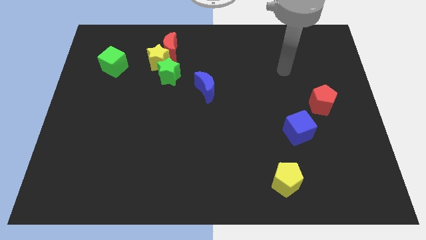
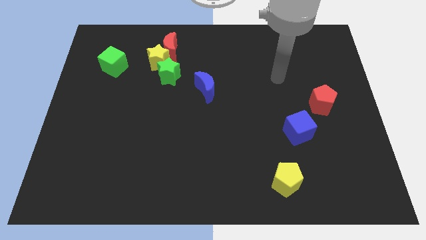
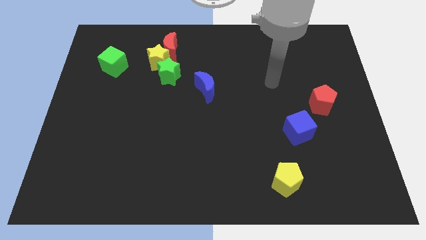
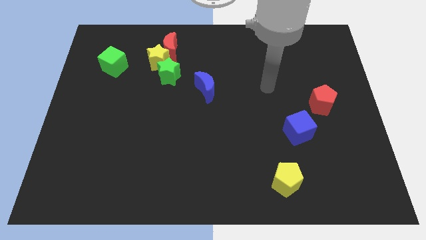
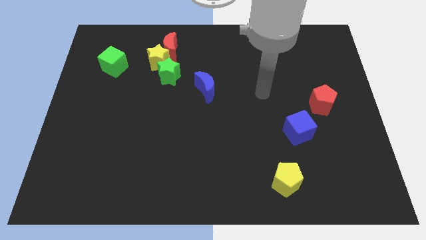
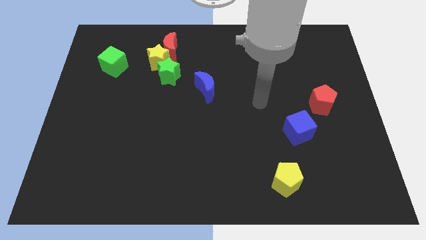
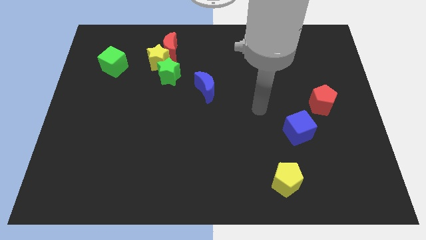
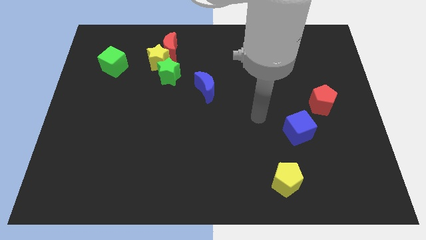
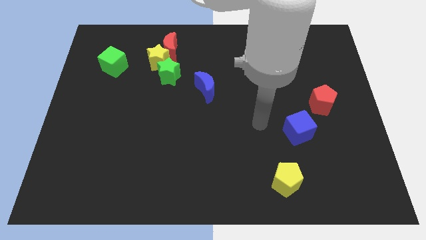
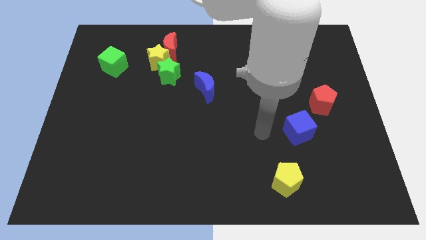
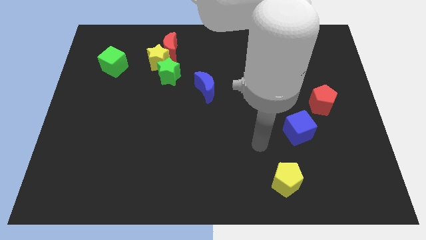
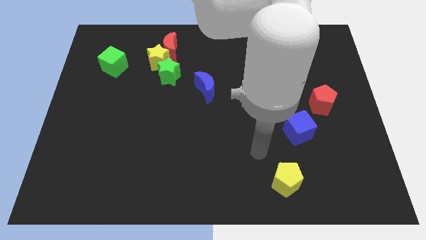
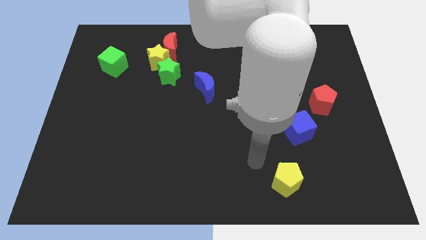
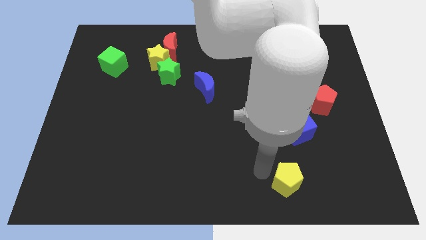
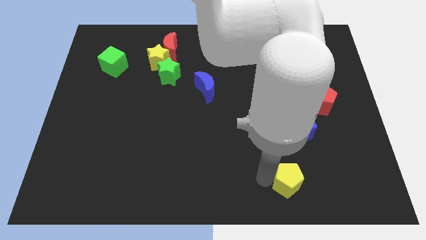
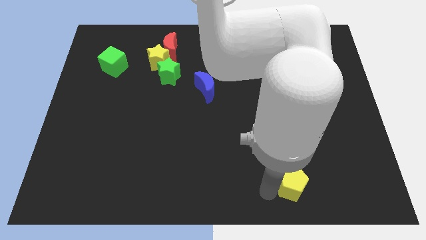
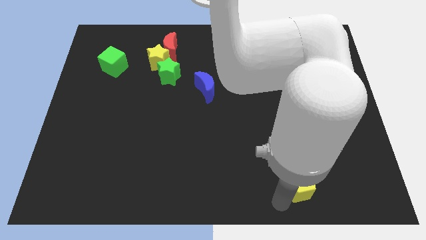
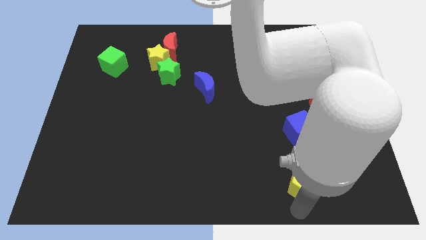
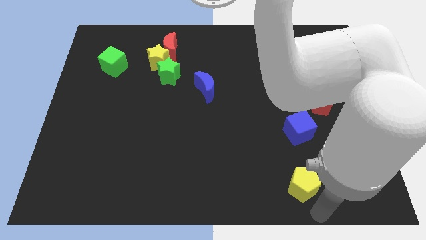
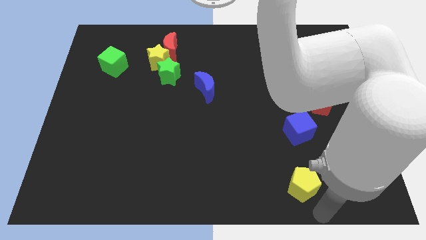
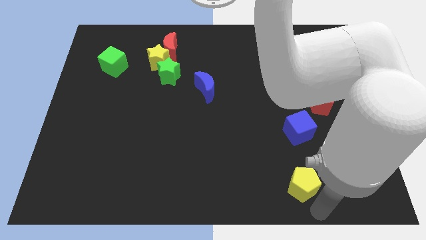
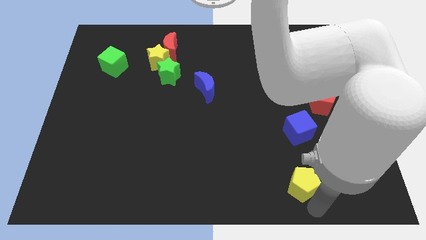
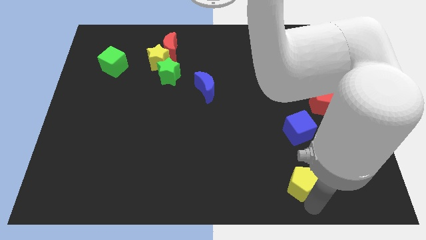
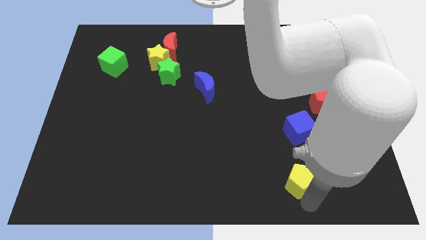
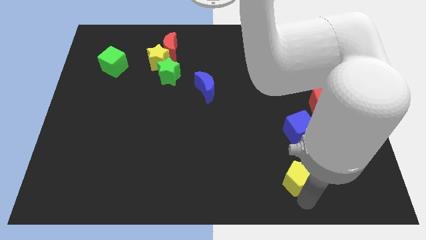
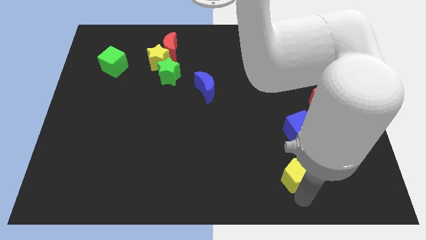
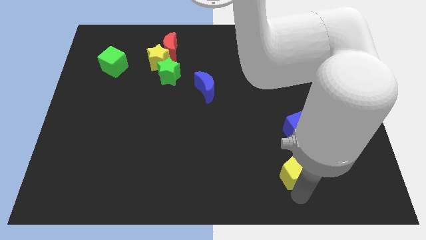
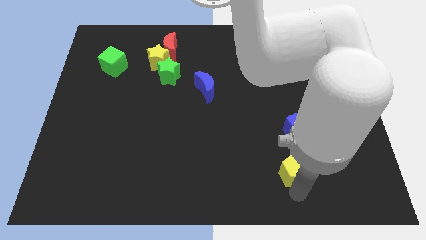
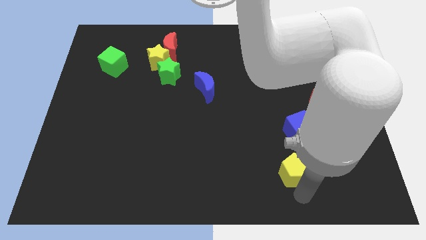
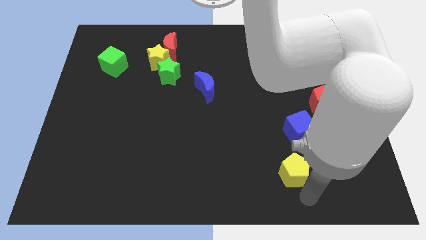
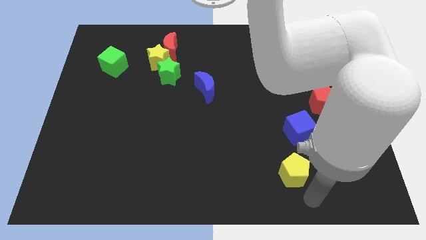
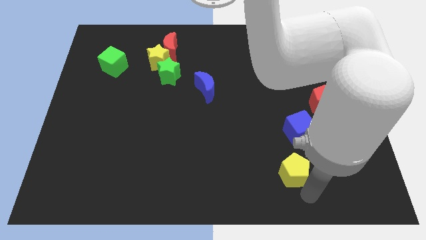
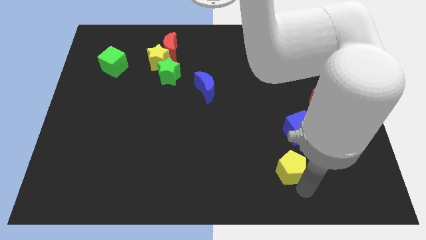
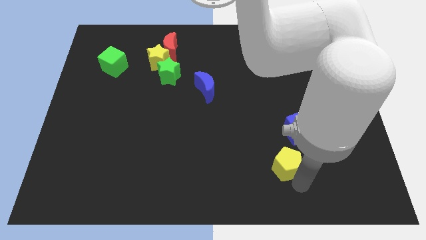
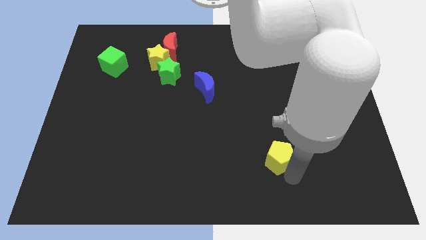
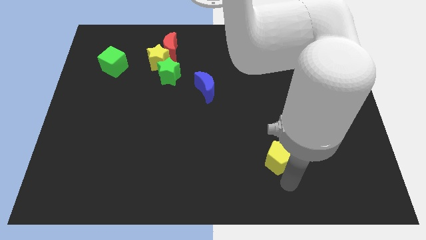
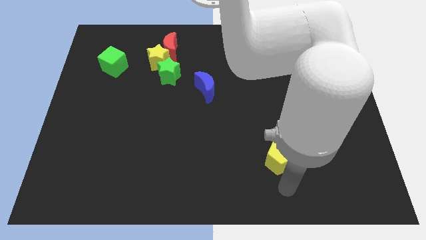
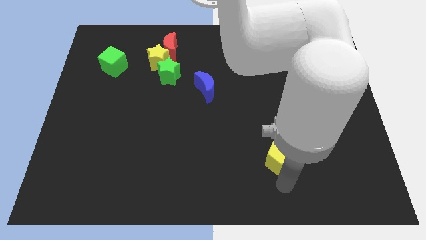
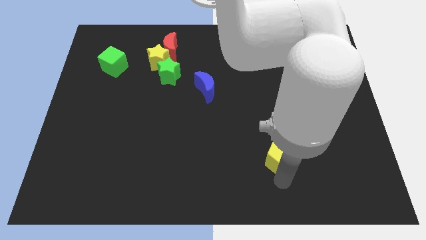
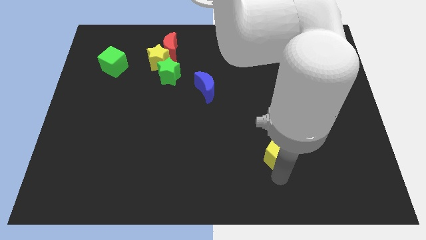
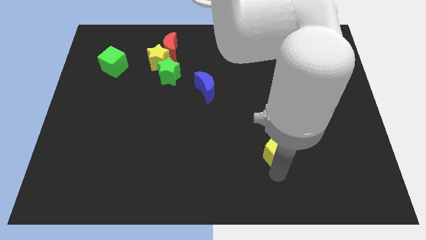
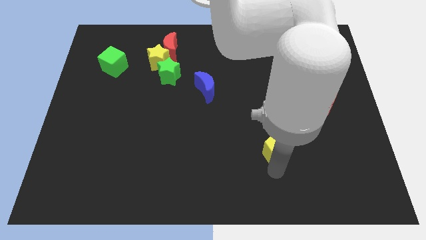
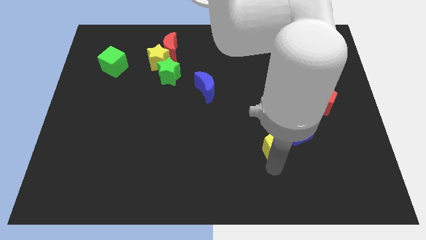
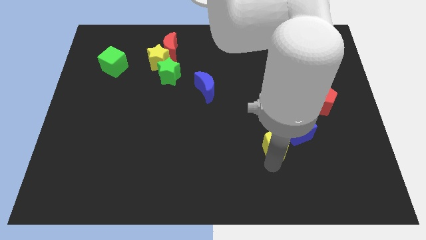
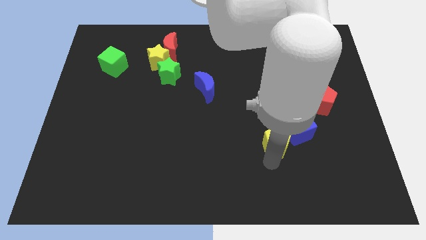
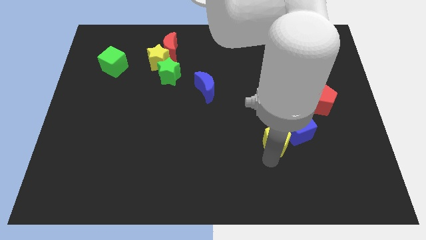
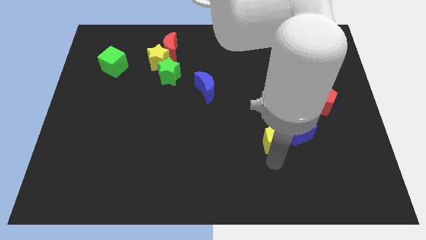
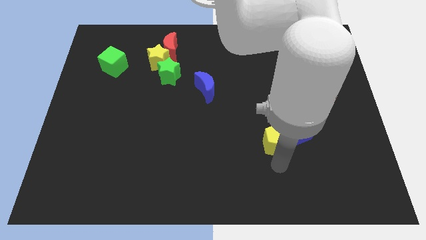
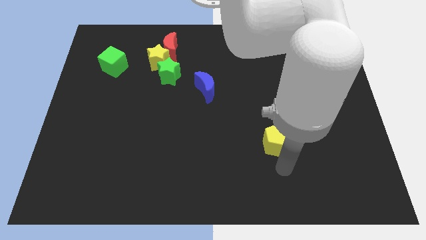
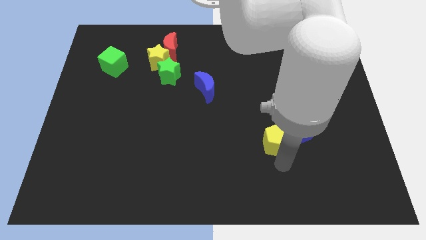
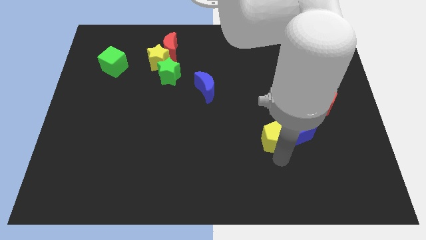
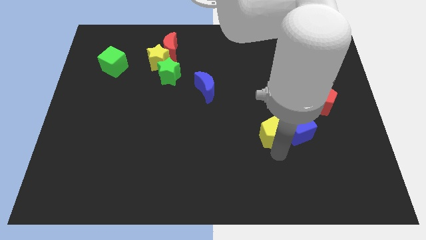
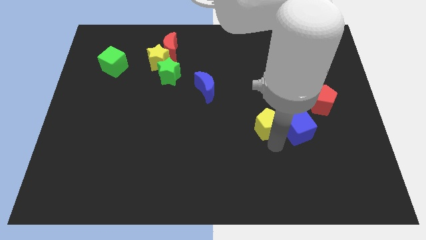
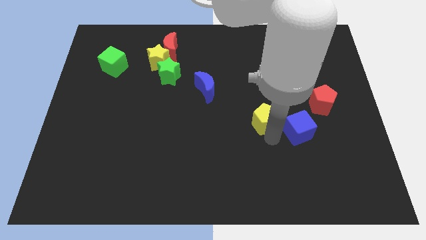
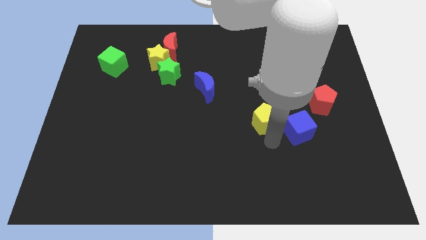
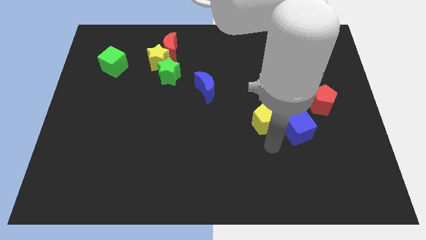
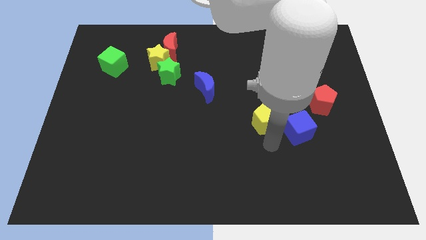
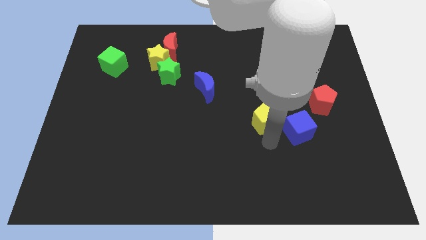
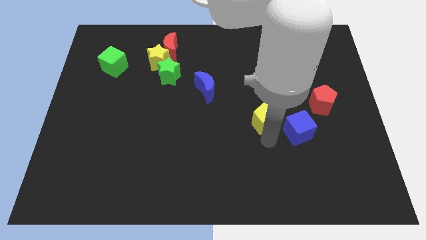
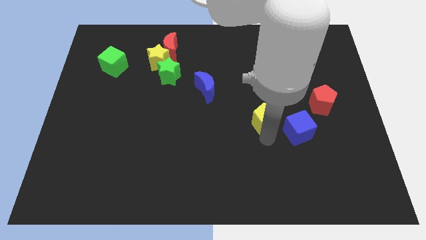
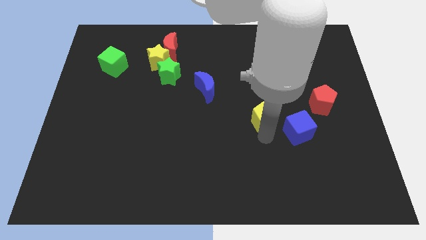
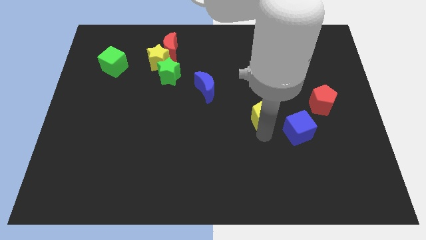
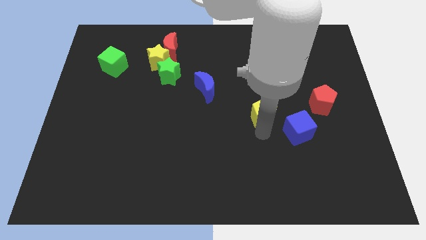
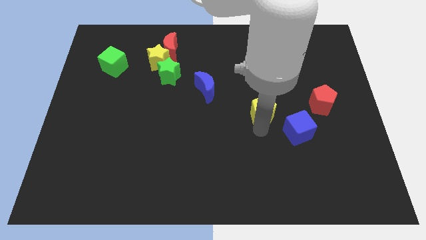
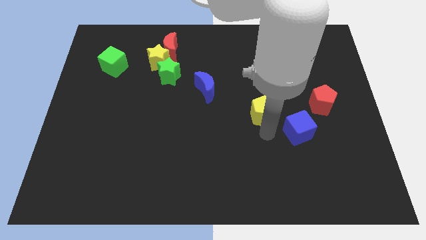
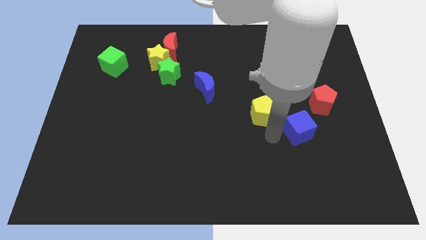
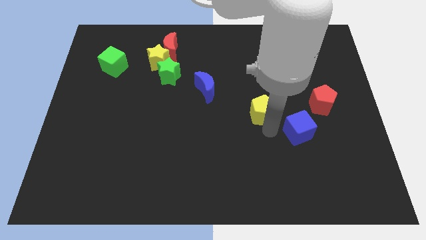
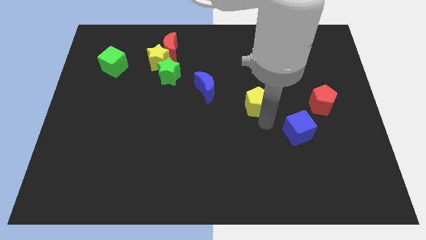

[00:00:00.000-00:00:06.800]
push the yellow pentagon to the right of the blue moon
